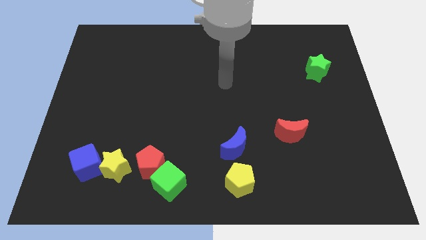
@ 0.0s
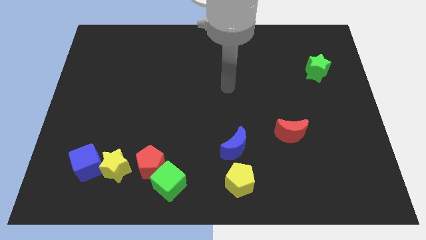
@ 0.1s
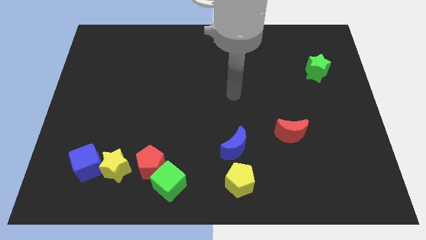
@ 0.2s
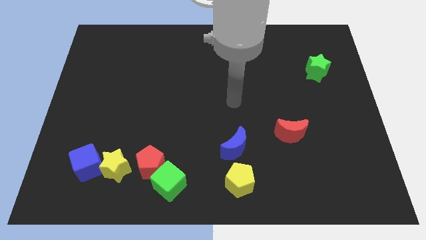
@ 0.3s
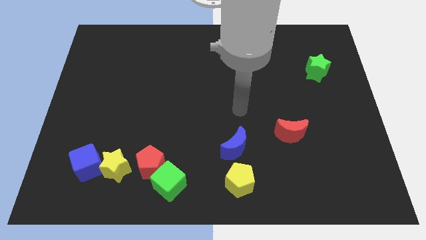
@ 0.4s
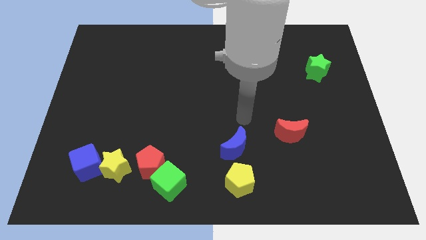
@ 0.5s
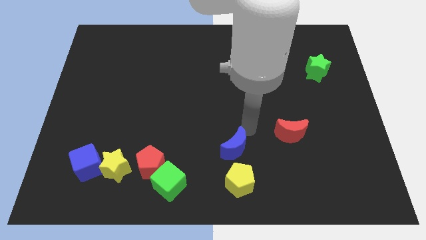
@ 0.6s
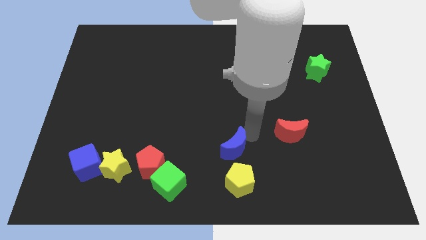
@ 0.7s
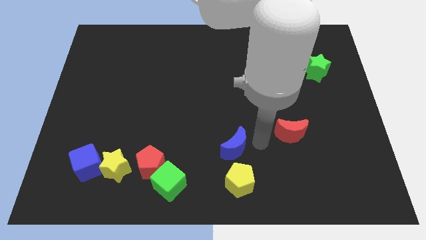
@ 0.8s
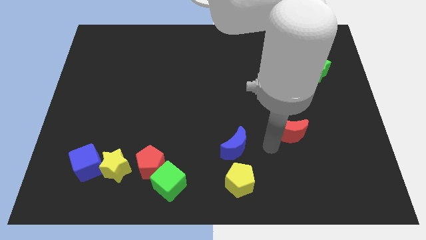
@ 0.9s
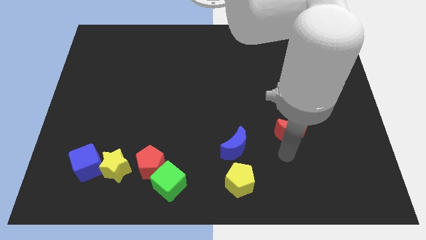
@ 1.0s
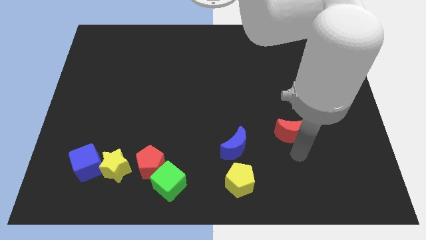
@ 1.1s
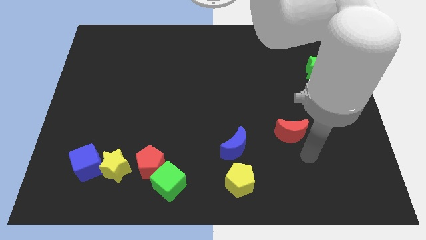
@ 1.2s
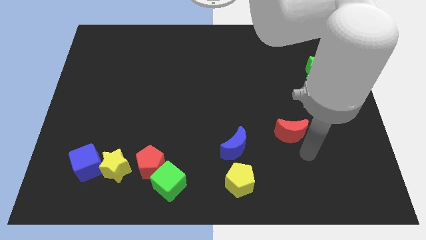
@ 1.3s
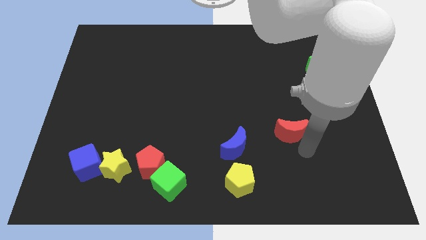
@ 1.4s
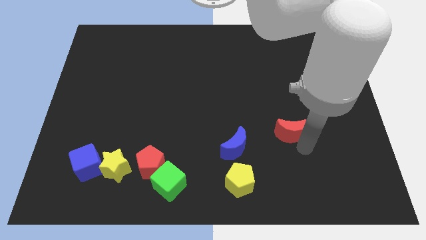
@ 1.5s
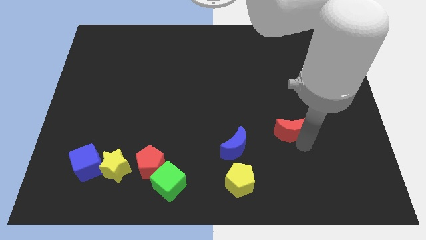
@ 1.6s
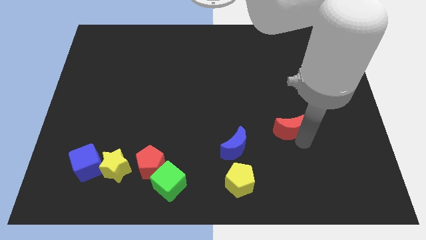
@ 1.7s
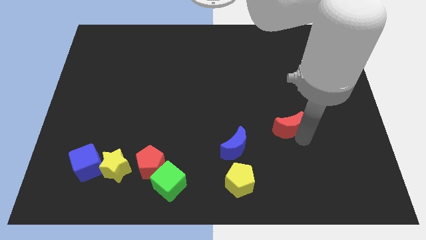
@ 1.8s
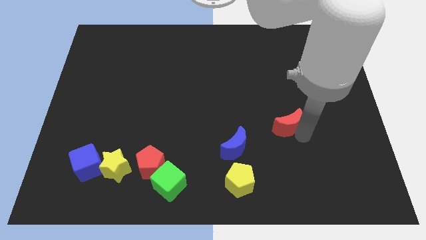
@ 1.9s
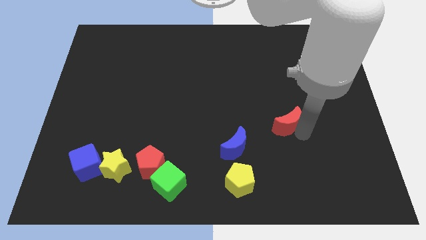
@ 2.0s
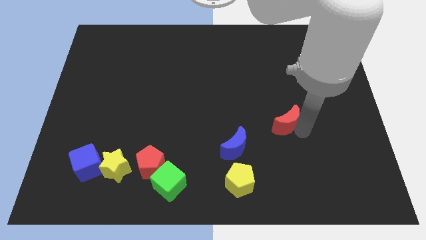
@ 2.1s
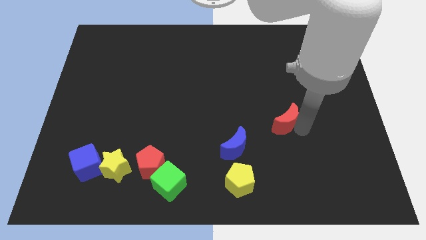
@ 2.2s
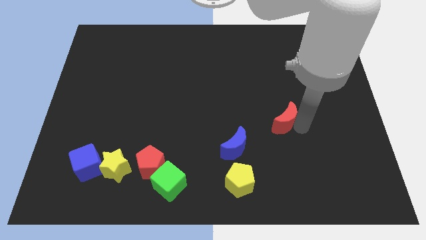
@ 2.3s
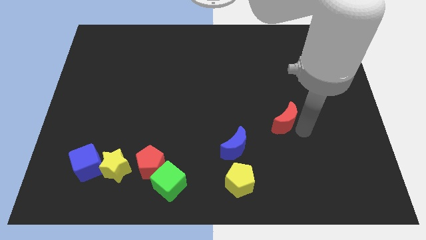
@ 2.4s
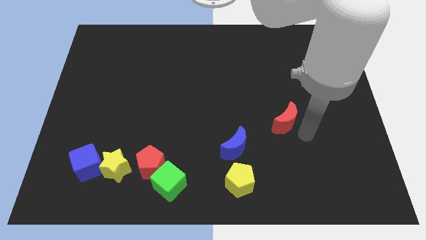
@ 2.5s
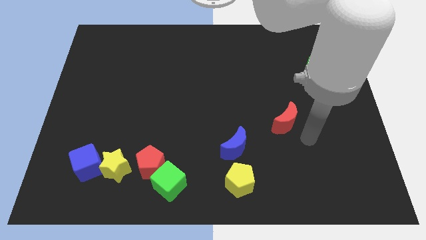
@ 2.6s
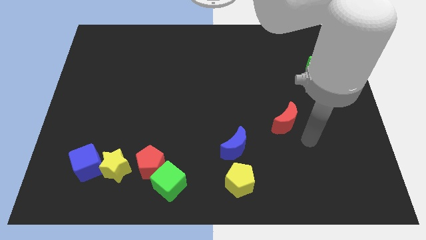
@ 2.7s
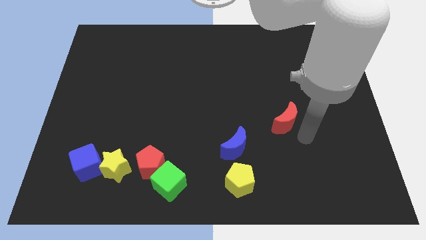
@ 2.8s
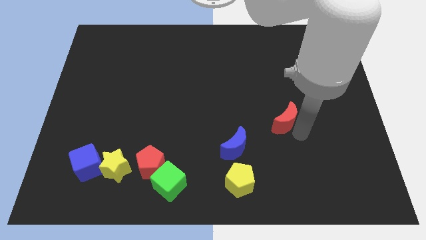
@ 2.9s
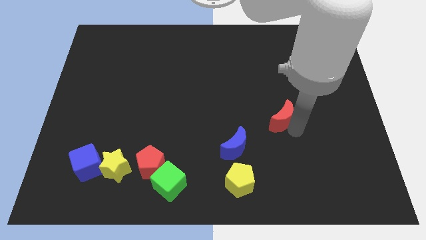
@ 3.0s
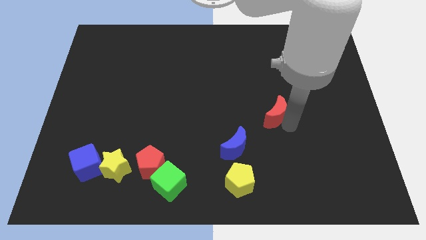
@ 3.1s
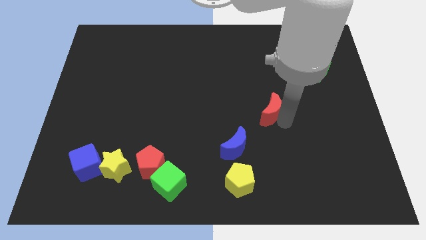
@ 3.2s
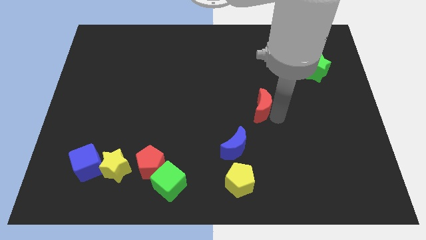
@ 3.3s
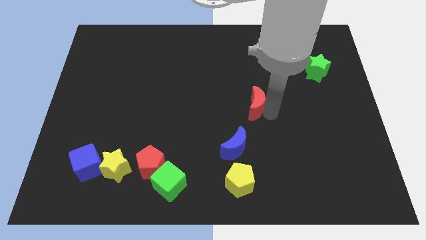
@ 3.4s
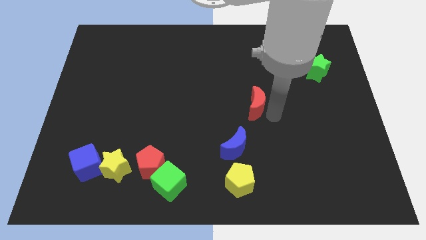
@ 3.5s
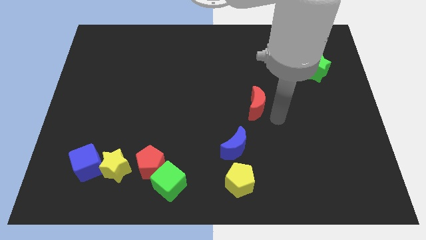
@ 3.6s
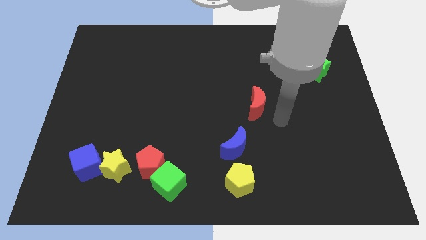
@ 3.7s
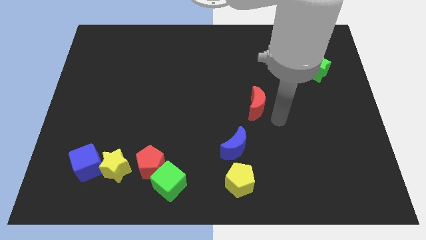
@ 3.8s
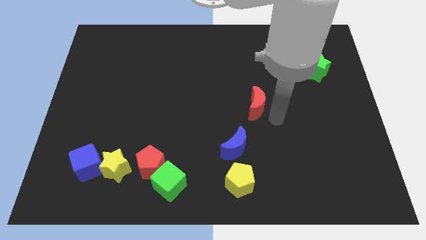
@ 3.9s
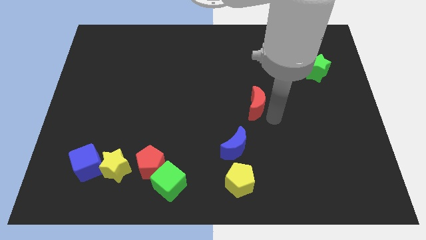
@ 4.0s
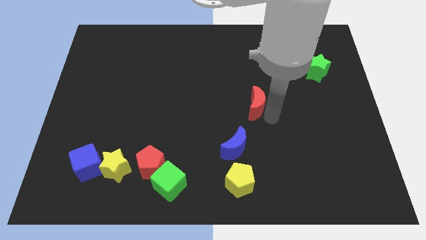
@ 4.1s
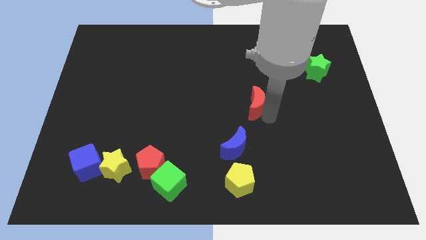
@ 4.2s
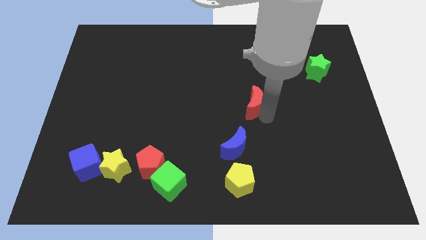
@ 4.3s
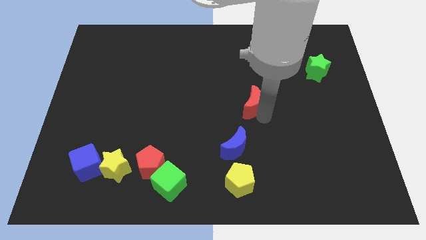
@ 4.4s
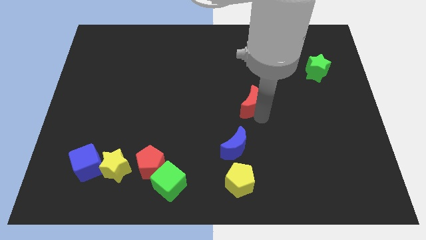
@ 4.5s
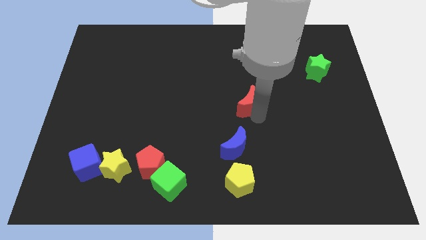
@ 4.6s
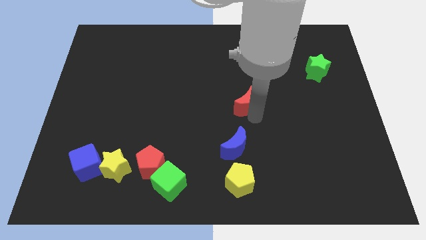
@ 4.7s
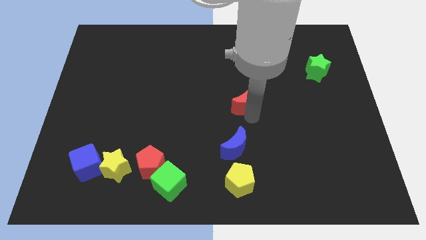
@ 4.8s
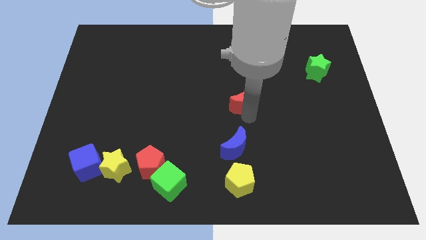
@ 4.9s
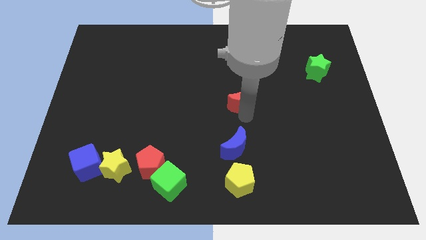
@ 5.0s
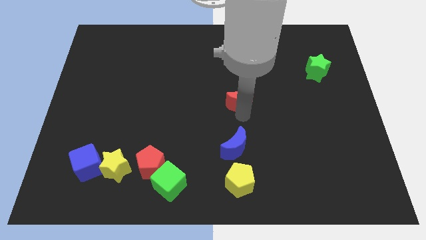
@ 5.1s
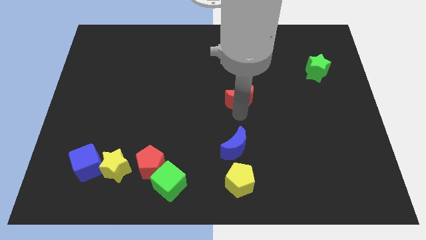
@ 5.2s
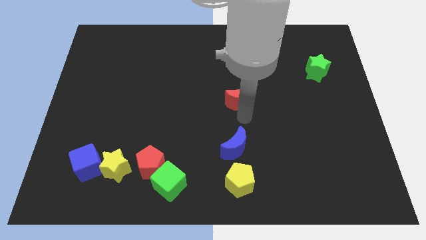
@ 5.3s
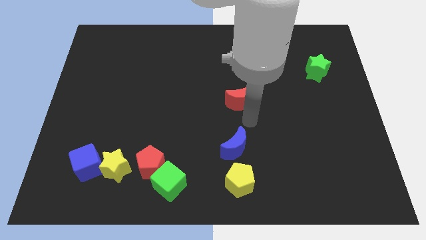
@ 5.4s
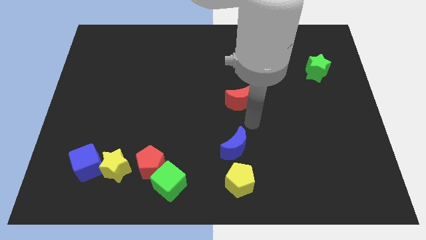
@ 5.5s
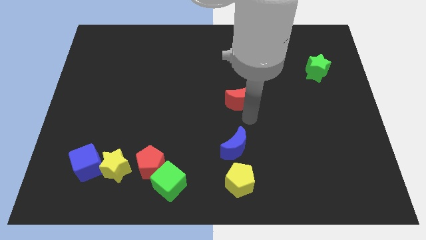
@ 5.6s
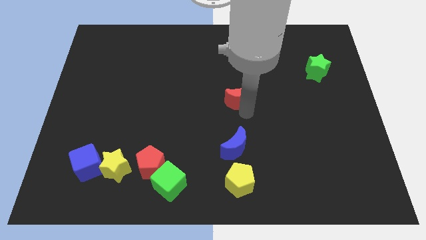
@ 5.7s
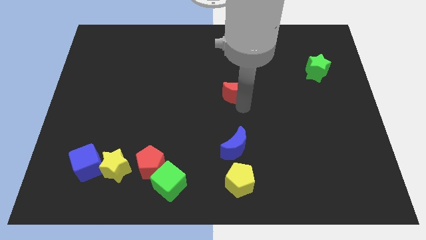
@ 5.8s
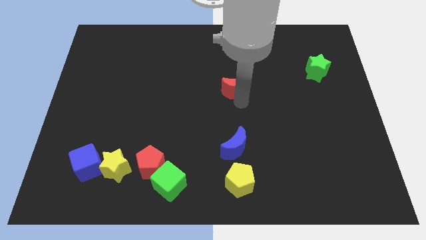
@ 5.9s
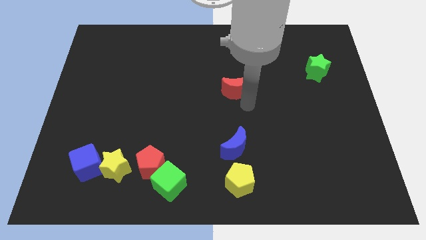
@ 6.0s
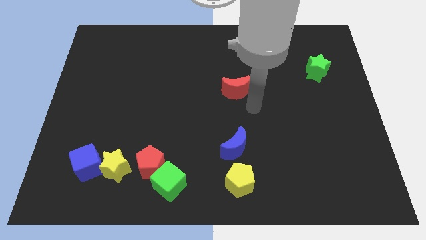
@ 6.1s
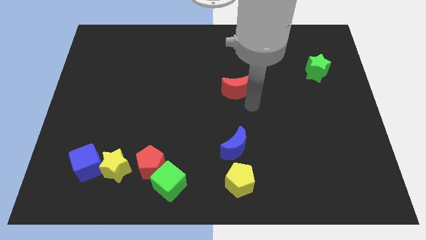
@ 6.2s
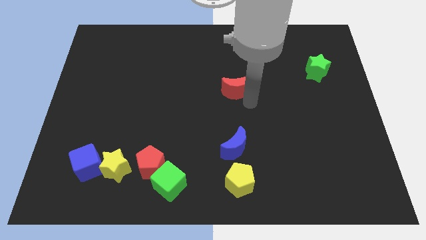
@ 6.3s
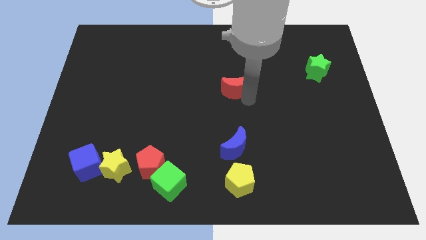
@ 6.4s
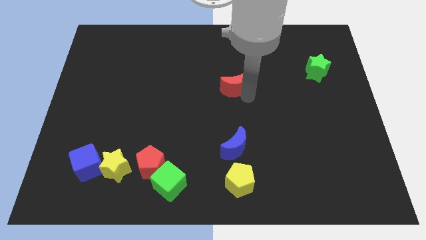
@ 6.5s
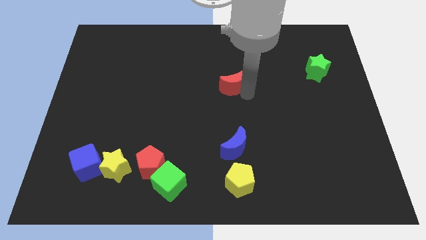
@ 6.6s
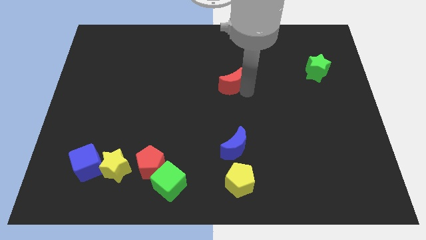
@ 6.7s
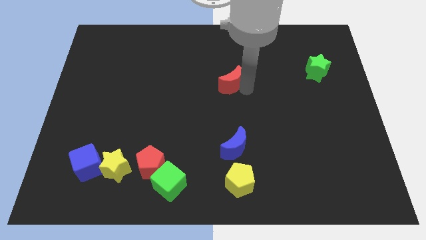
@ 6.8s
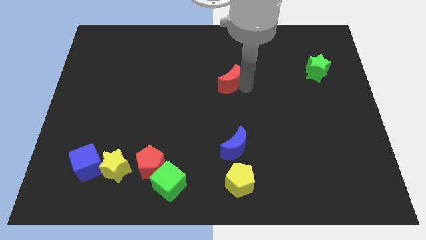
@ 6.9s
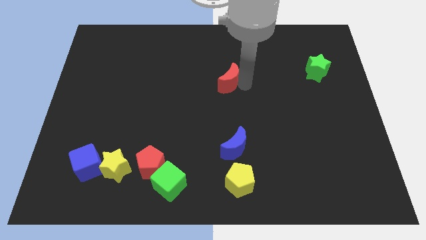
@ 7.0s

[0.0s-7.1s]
move the red moon up and to the left

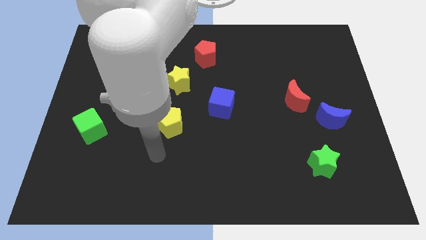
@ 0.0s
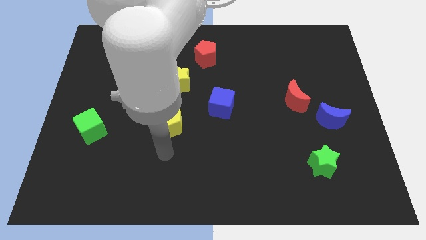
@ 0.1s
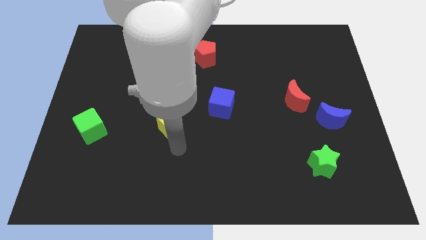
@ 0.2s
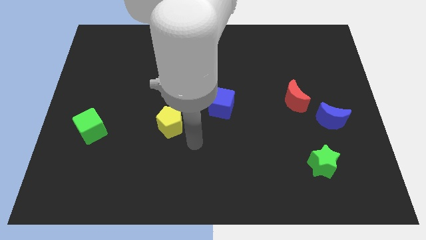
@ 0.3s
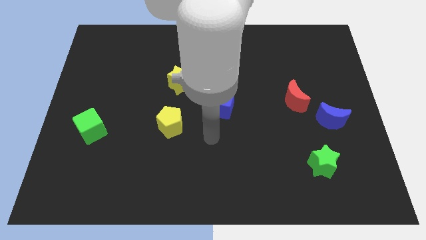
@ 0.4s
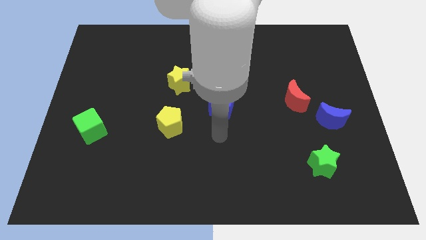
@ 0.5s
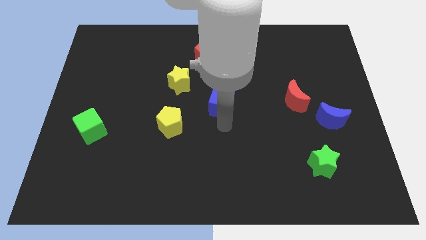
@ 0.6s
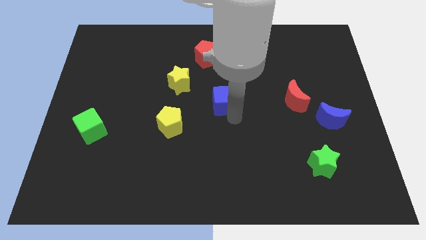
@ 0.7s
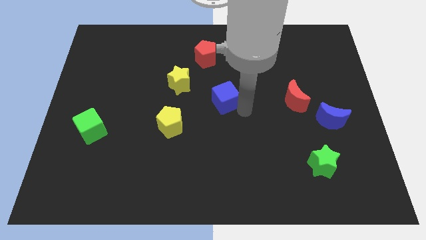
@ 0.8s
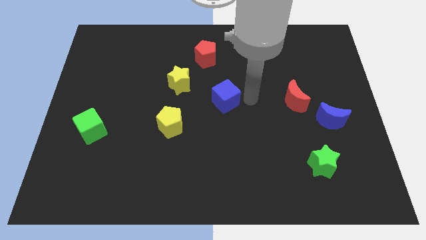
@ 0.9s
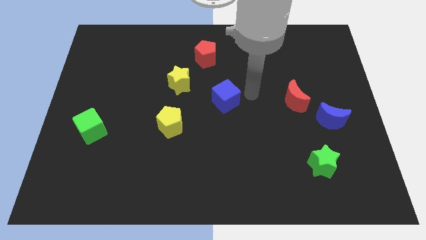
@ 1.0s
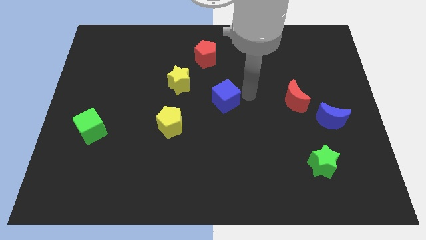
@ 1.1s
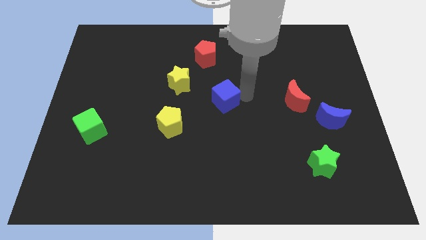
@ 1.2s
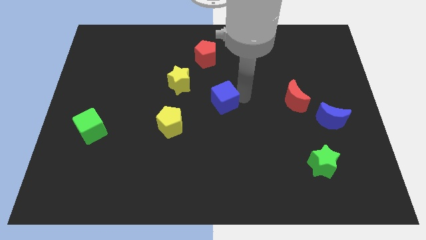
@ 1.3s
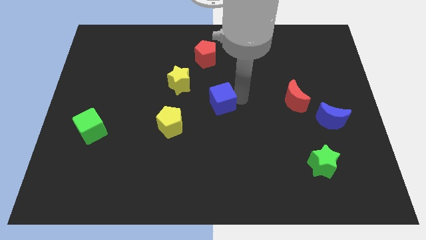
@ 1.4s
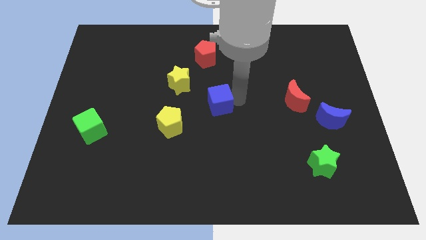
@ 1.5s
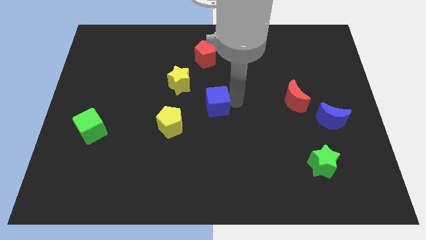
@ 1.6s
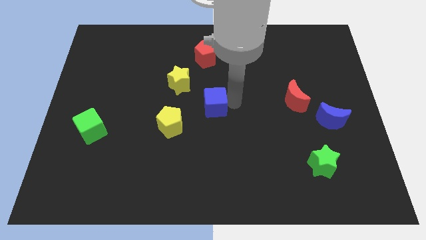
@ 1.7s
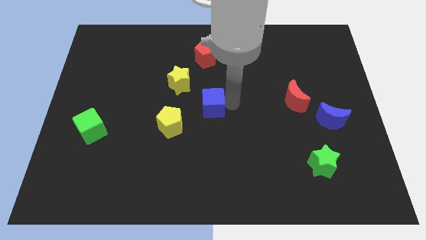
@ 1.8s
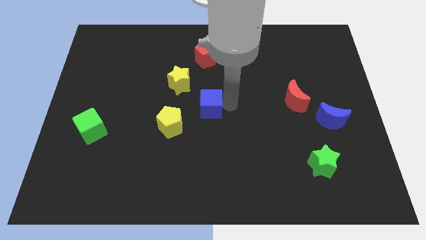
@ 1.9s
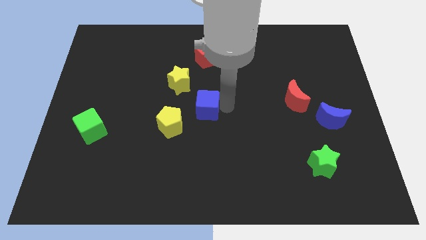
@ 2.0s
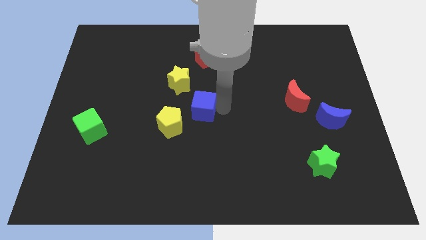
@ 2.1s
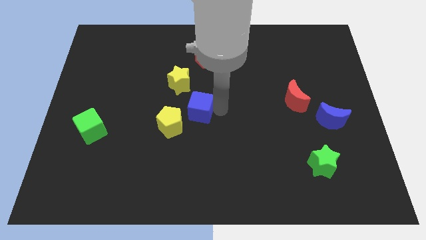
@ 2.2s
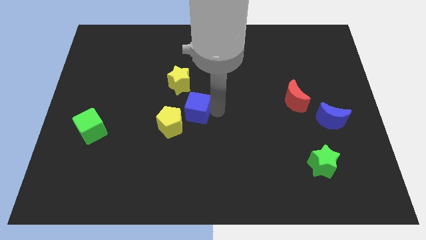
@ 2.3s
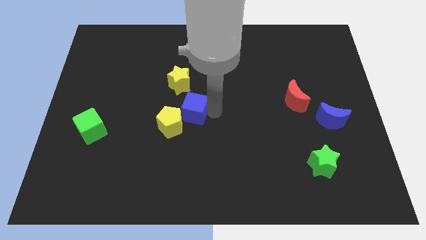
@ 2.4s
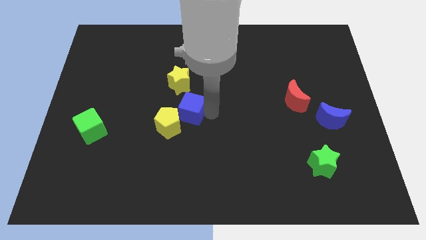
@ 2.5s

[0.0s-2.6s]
slide the blue cube to the left slightly
